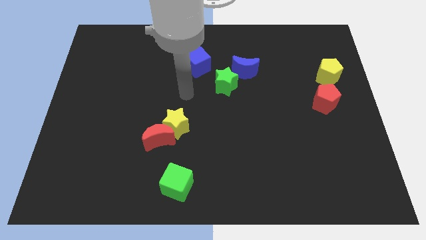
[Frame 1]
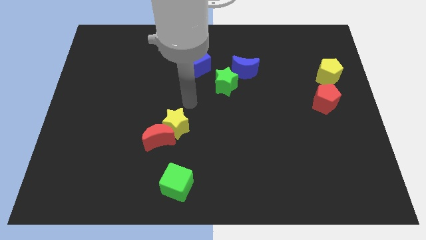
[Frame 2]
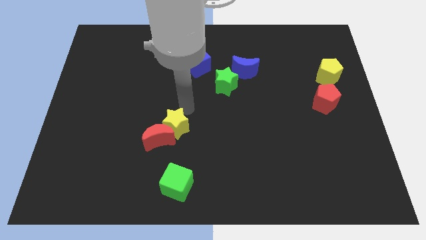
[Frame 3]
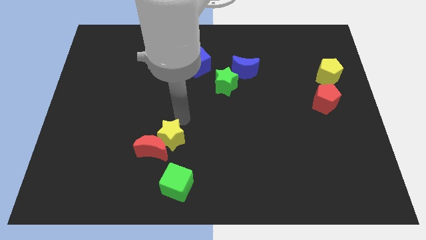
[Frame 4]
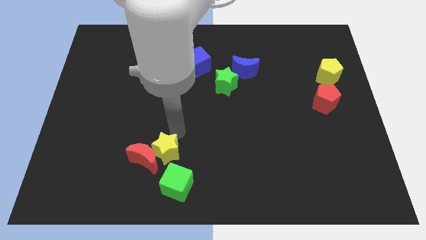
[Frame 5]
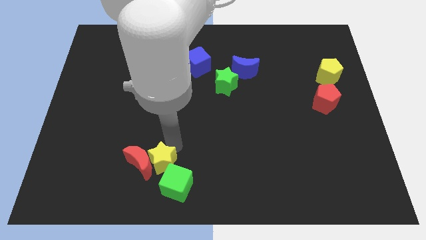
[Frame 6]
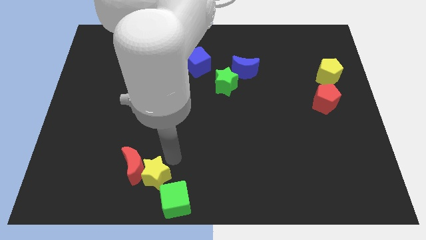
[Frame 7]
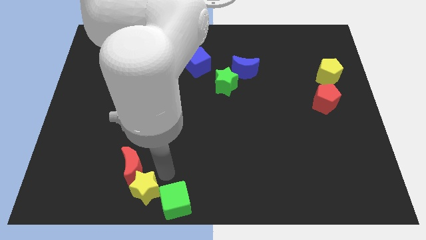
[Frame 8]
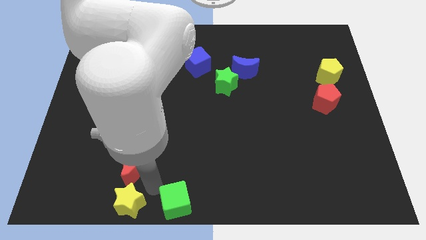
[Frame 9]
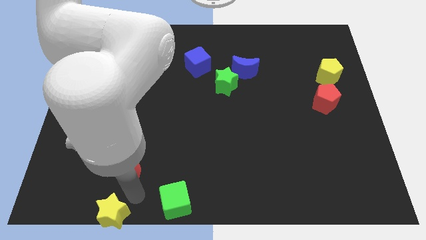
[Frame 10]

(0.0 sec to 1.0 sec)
move the red moon away from the yellow star

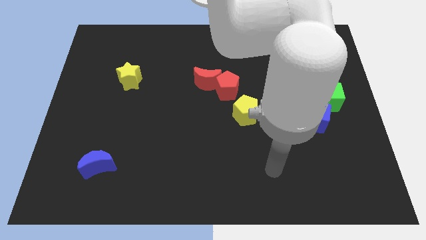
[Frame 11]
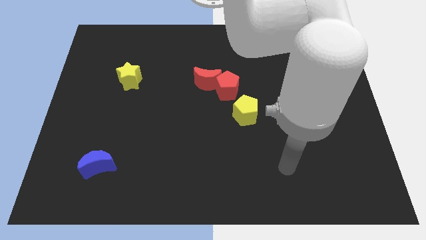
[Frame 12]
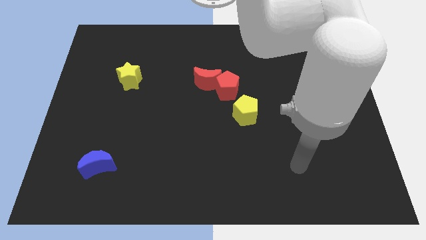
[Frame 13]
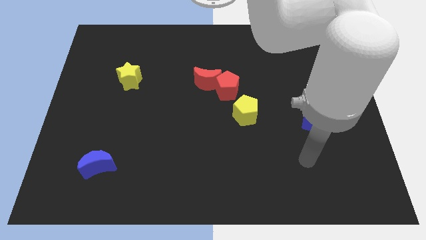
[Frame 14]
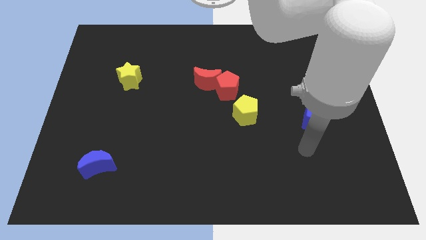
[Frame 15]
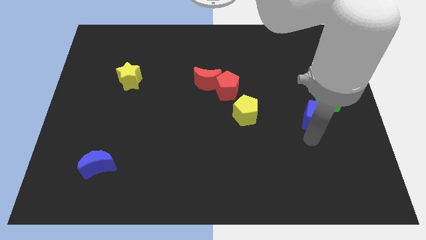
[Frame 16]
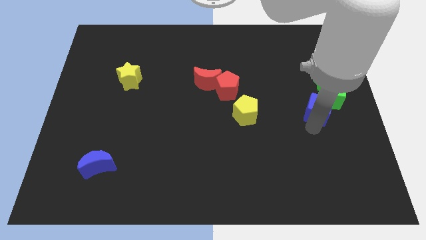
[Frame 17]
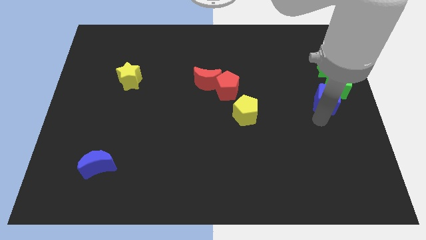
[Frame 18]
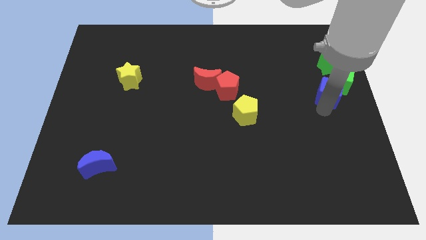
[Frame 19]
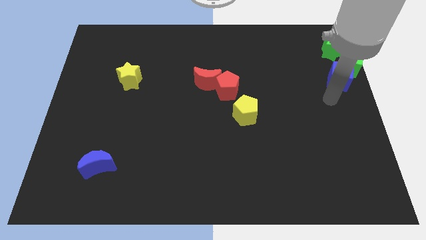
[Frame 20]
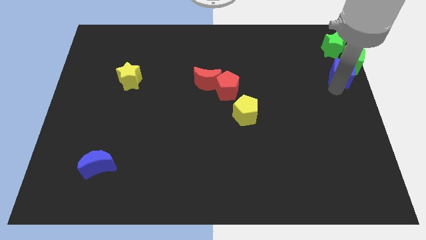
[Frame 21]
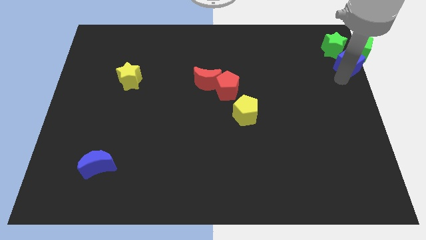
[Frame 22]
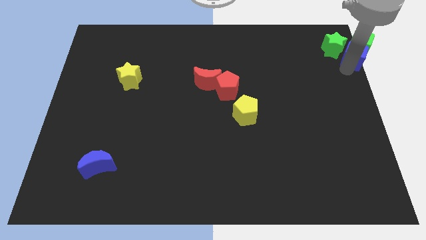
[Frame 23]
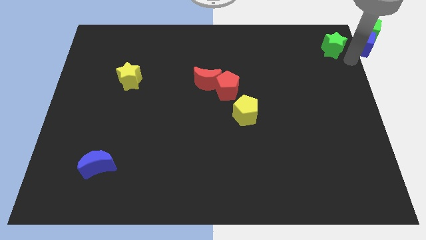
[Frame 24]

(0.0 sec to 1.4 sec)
pull the green star apart from the green cube

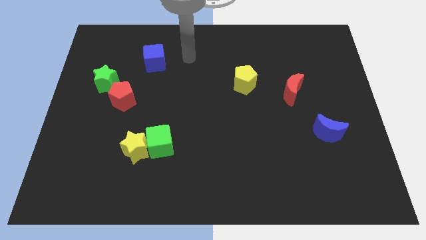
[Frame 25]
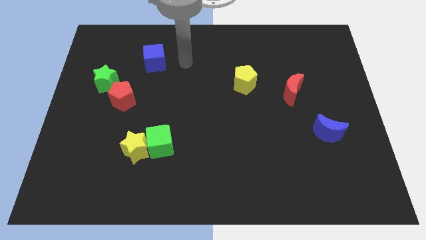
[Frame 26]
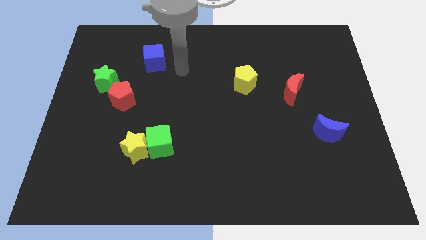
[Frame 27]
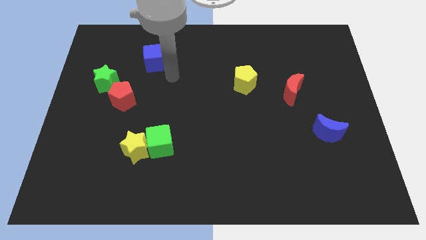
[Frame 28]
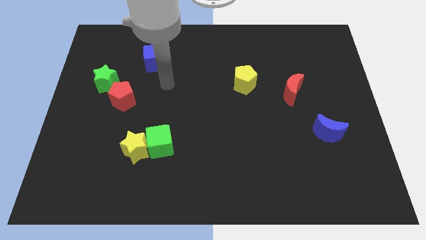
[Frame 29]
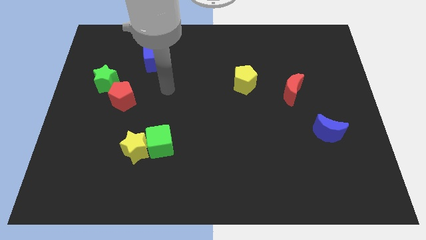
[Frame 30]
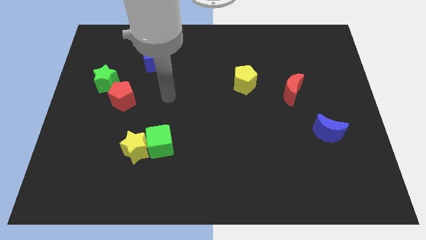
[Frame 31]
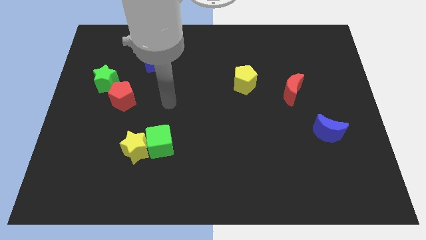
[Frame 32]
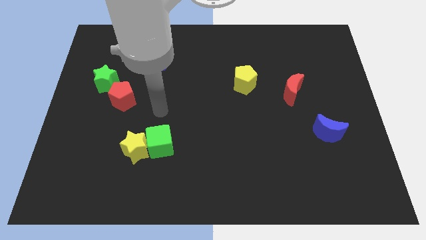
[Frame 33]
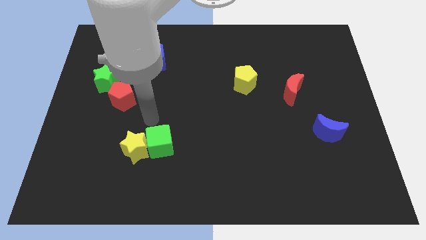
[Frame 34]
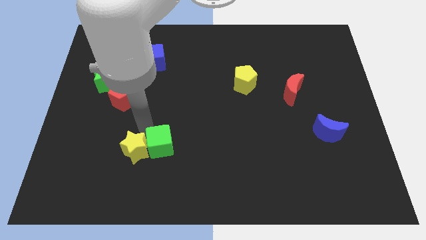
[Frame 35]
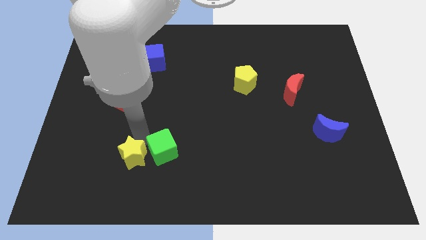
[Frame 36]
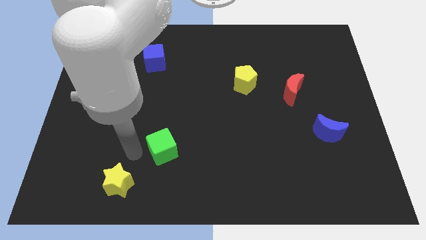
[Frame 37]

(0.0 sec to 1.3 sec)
pull the green cube apart from the yellow star

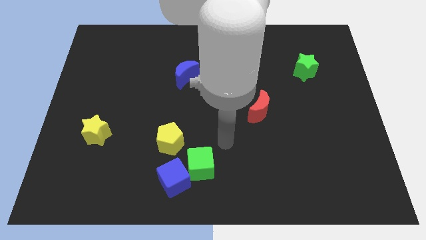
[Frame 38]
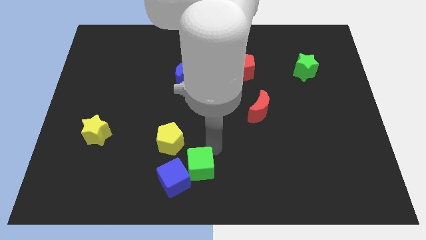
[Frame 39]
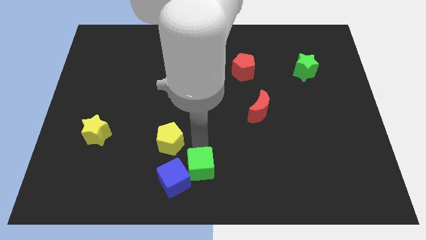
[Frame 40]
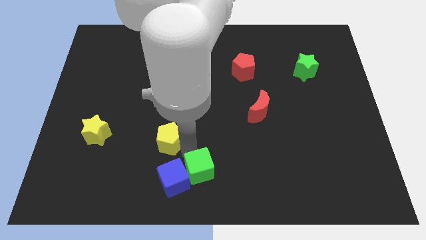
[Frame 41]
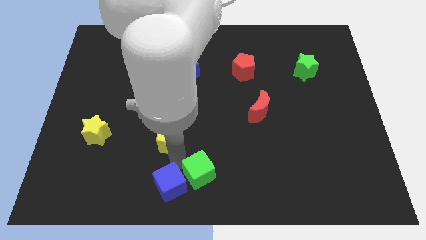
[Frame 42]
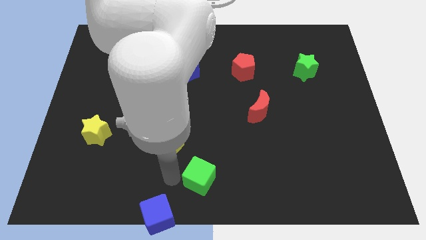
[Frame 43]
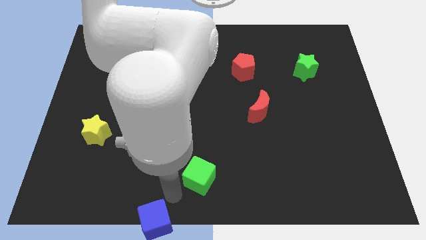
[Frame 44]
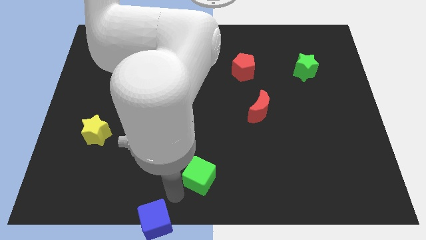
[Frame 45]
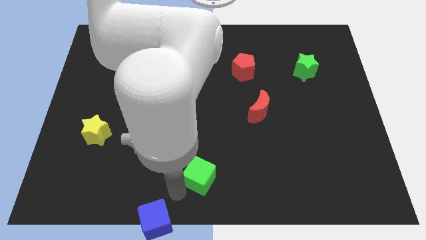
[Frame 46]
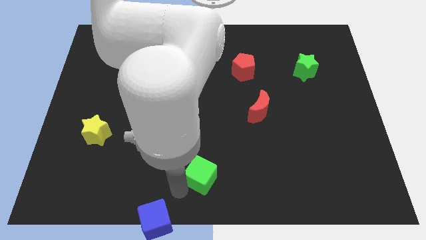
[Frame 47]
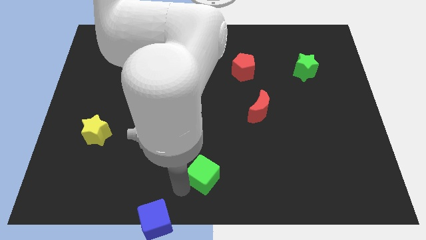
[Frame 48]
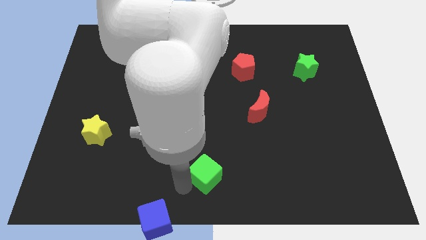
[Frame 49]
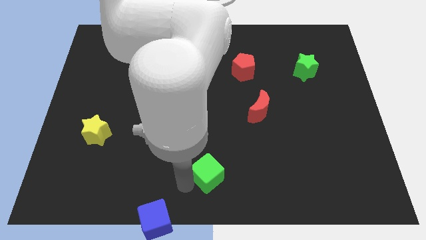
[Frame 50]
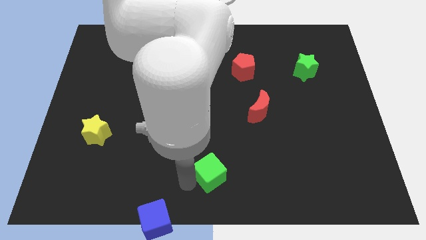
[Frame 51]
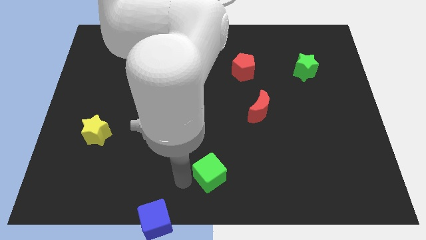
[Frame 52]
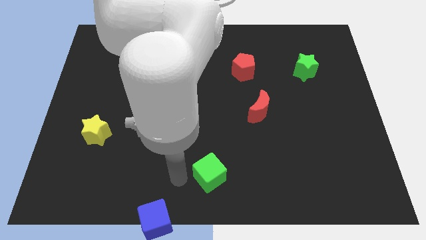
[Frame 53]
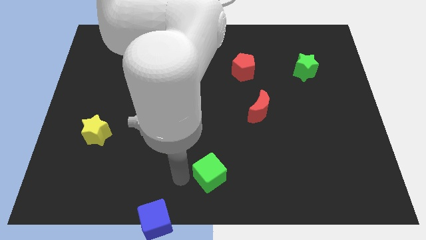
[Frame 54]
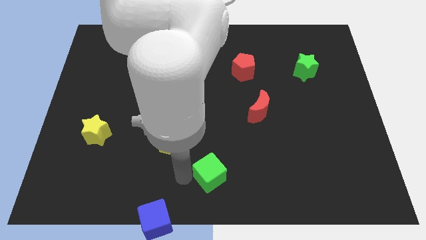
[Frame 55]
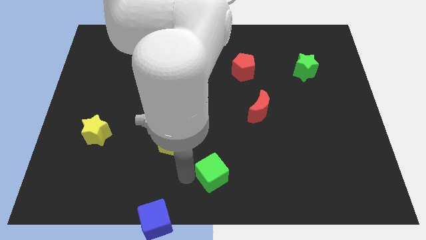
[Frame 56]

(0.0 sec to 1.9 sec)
pull the green cube apart from the blue cube and yellow pentagon

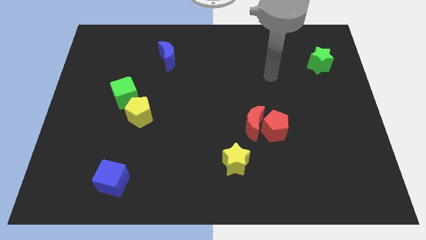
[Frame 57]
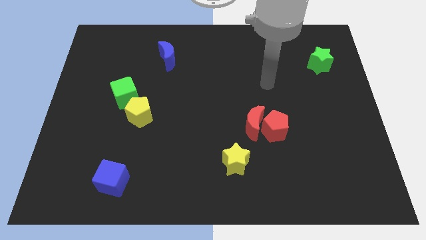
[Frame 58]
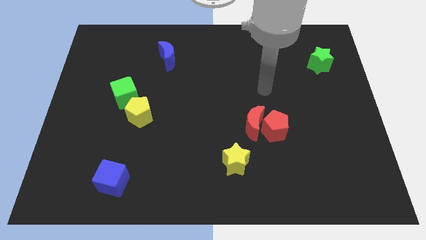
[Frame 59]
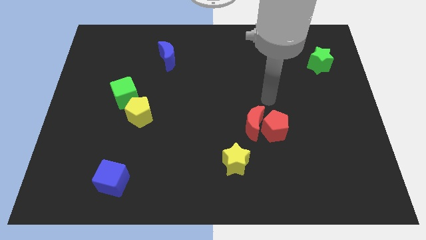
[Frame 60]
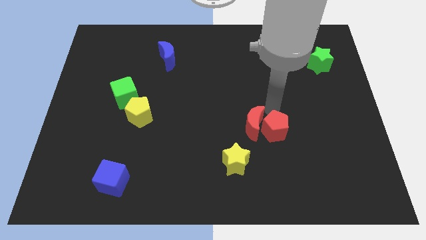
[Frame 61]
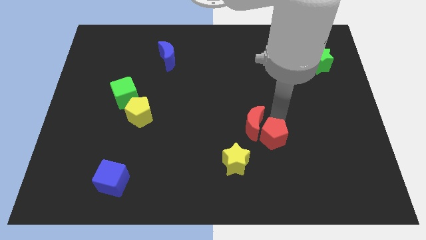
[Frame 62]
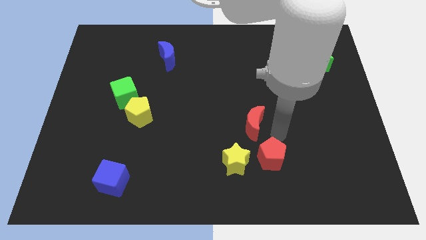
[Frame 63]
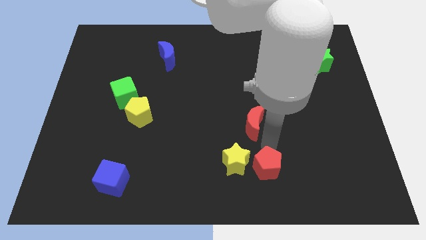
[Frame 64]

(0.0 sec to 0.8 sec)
move the red moon away from the red pentagon

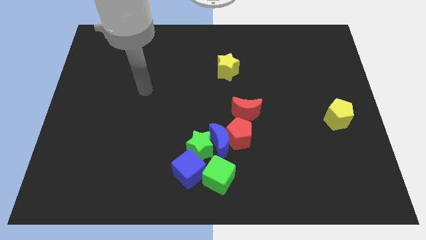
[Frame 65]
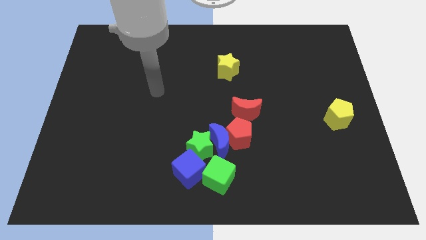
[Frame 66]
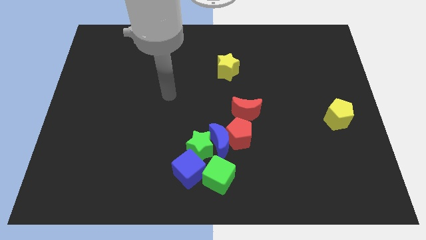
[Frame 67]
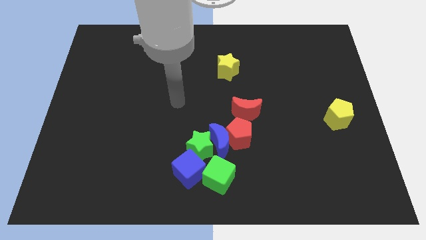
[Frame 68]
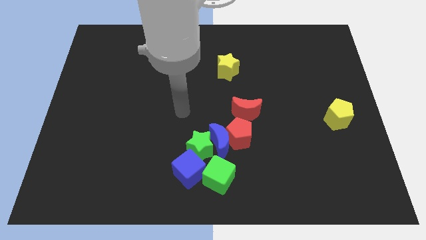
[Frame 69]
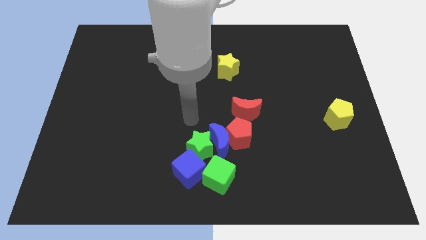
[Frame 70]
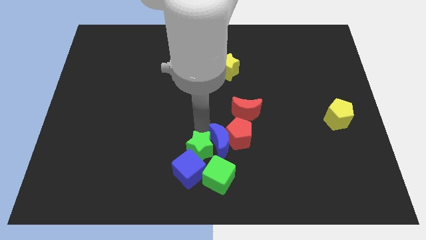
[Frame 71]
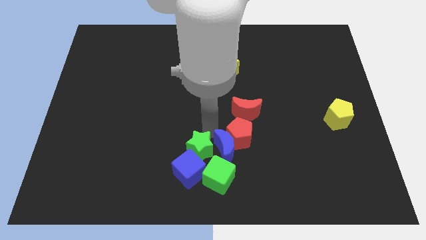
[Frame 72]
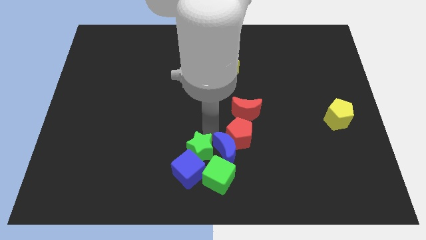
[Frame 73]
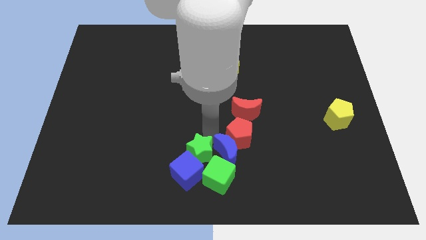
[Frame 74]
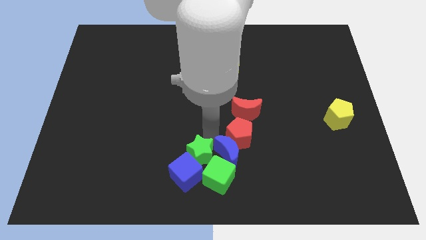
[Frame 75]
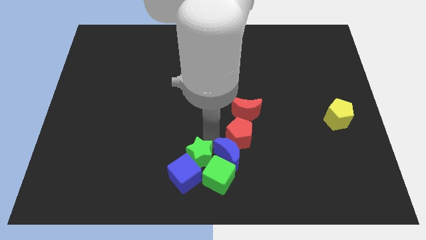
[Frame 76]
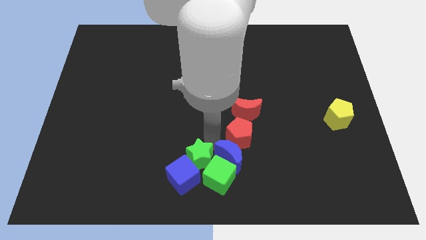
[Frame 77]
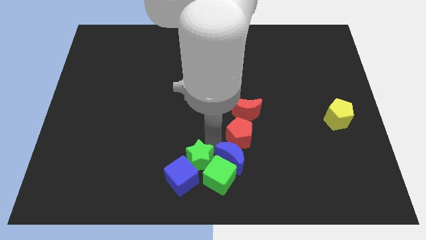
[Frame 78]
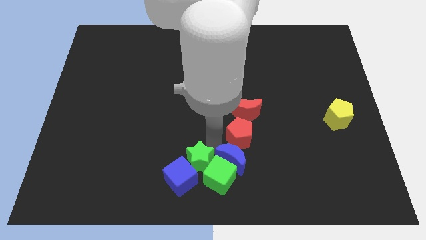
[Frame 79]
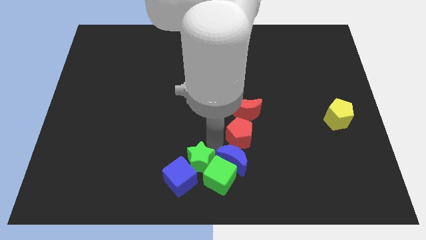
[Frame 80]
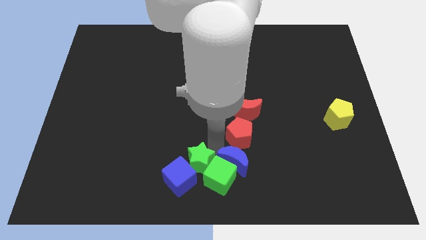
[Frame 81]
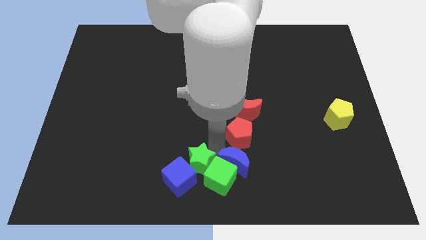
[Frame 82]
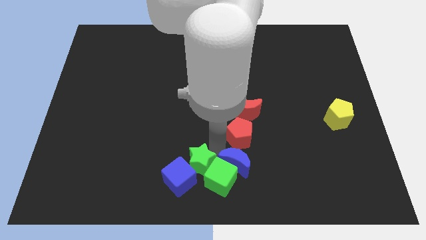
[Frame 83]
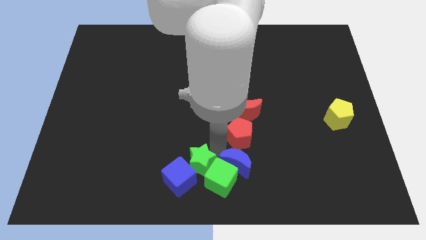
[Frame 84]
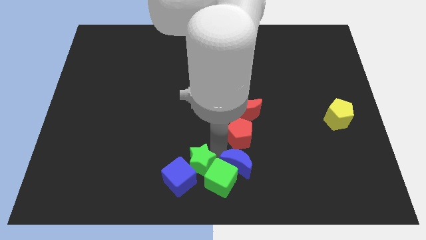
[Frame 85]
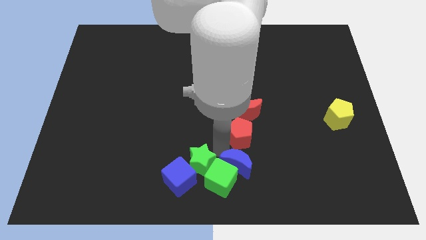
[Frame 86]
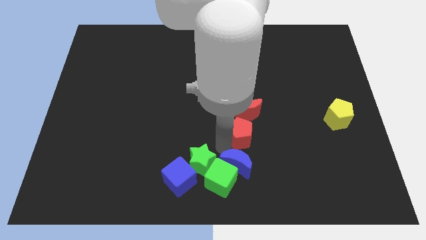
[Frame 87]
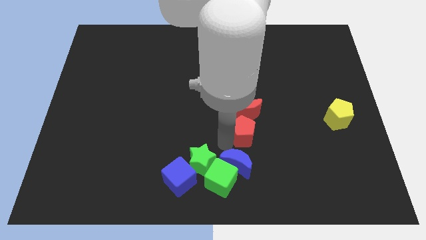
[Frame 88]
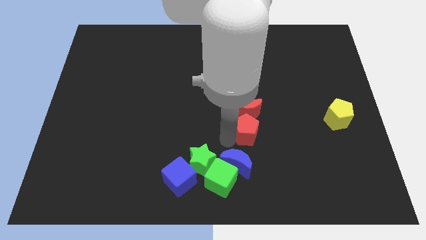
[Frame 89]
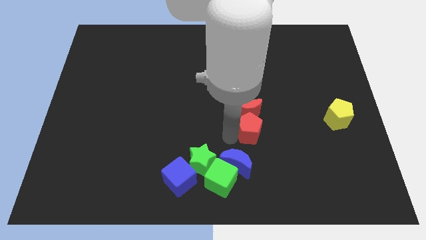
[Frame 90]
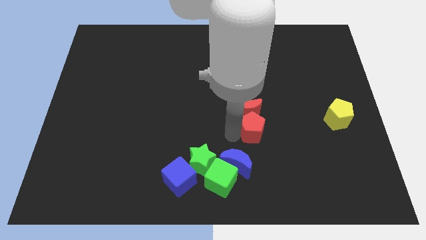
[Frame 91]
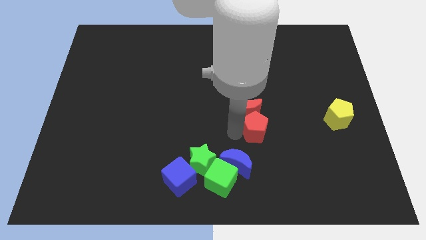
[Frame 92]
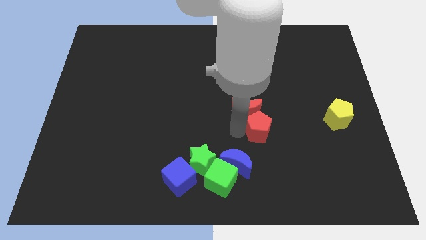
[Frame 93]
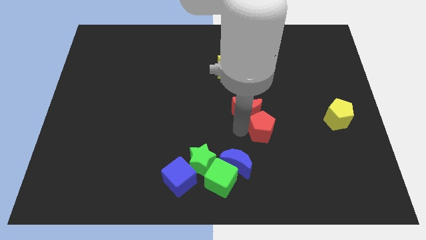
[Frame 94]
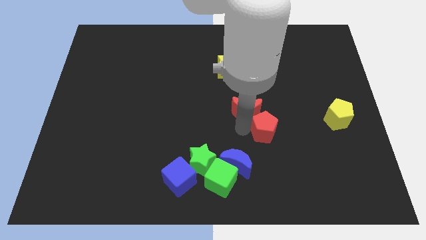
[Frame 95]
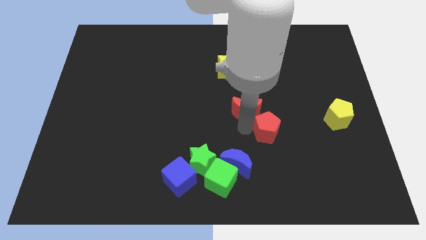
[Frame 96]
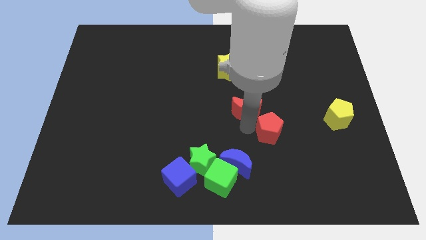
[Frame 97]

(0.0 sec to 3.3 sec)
move the red pentagon away from the group
